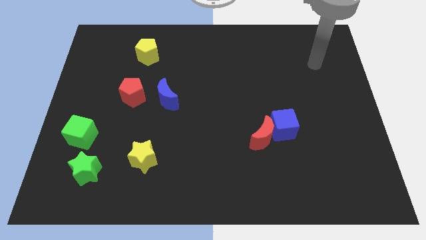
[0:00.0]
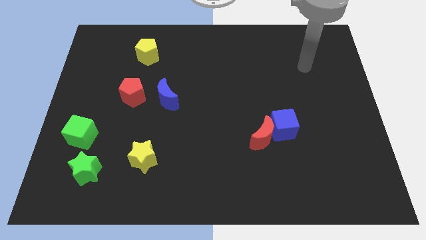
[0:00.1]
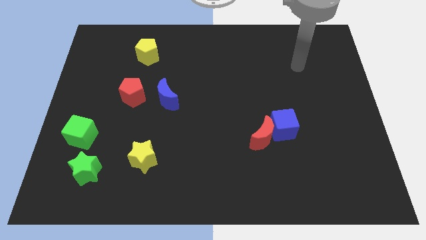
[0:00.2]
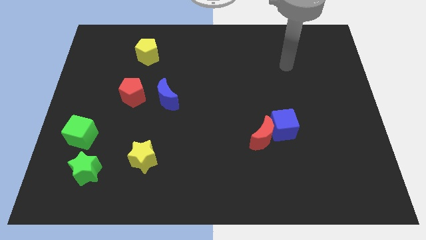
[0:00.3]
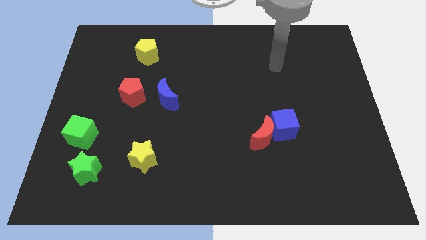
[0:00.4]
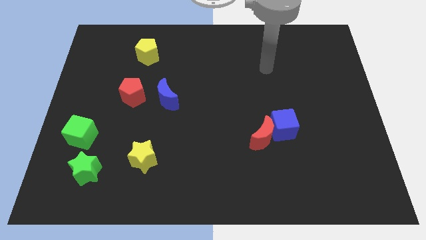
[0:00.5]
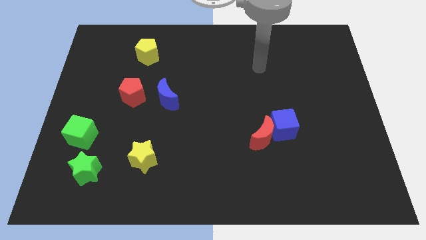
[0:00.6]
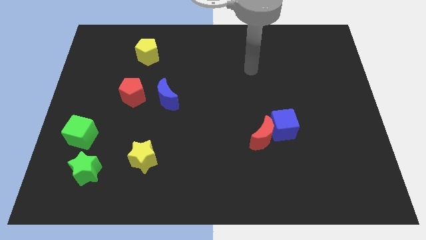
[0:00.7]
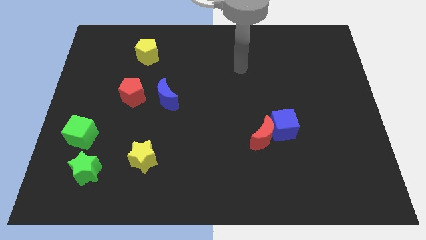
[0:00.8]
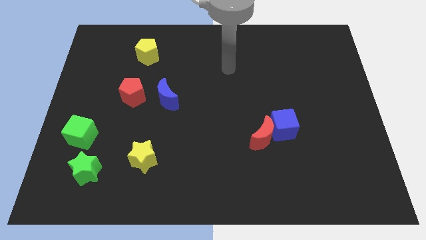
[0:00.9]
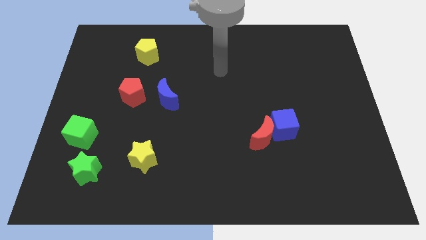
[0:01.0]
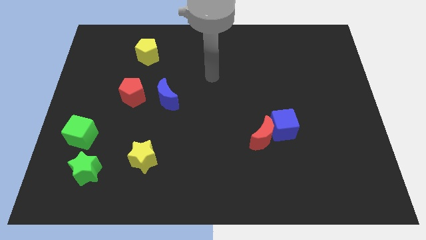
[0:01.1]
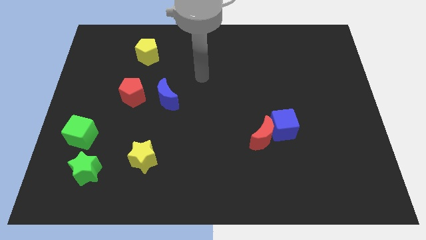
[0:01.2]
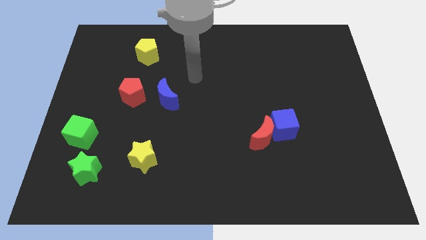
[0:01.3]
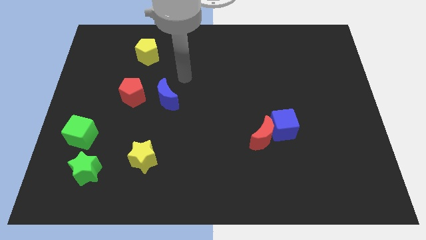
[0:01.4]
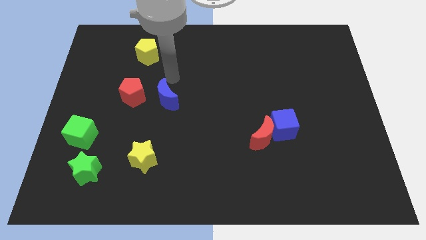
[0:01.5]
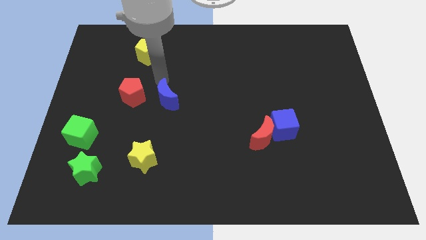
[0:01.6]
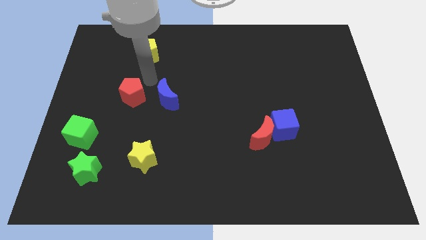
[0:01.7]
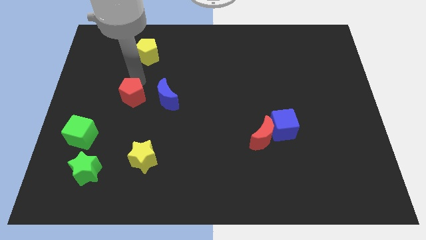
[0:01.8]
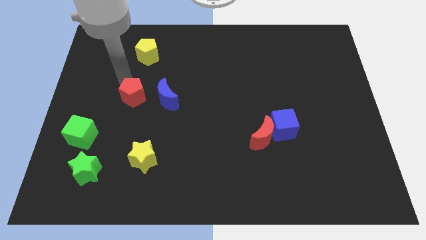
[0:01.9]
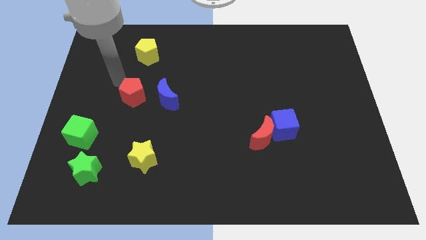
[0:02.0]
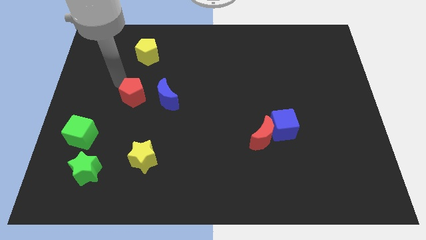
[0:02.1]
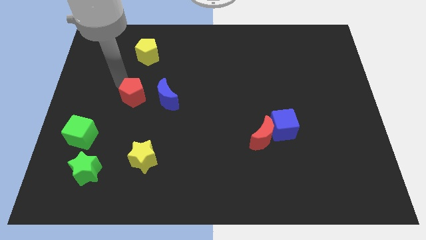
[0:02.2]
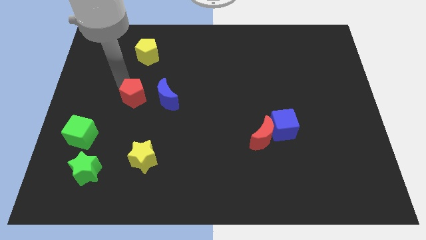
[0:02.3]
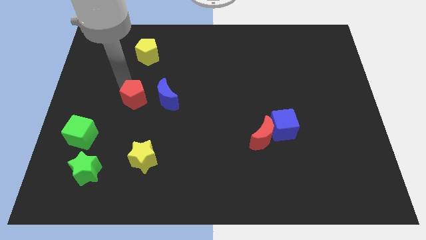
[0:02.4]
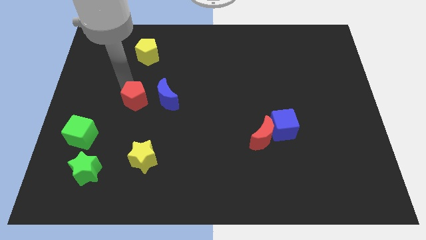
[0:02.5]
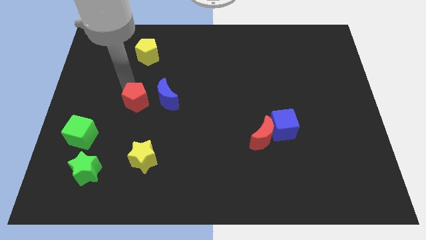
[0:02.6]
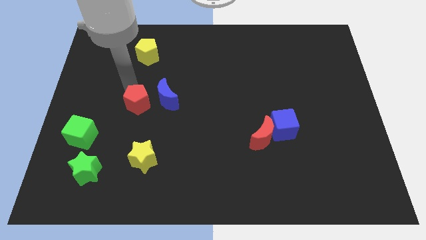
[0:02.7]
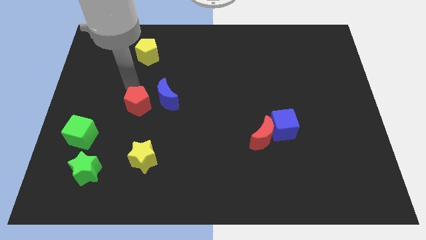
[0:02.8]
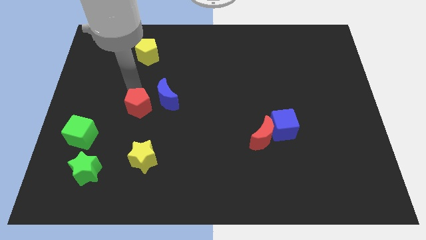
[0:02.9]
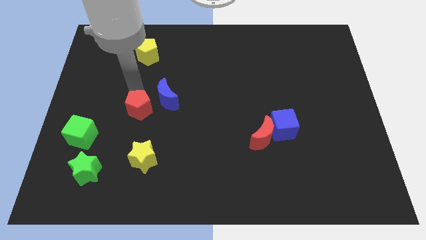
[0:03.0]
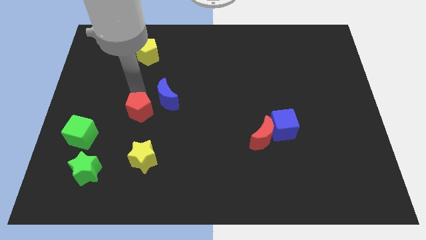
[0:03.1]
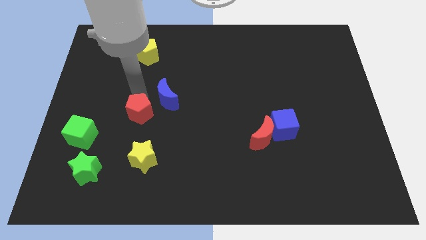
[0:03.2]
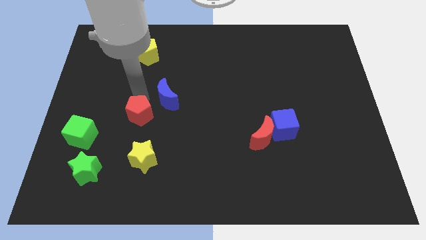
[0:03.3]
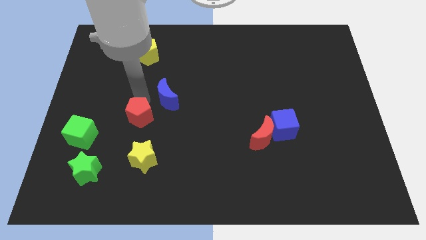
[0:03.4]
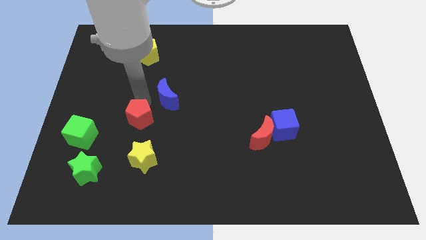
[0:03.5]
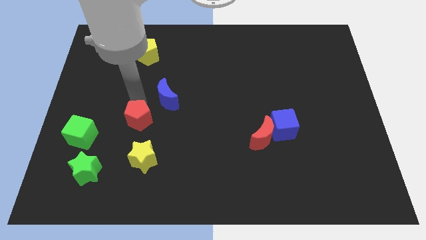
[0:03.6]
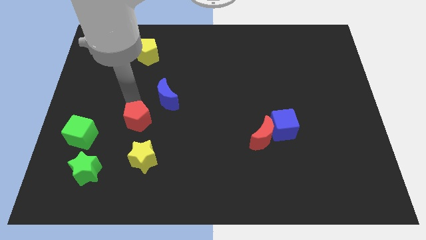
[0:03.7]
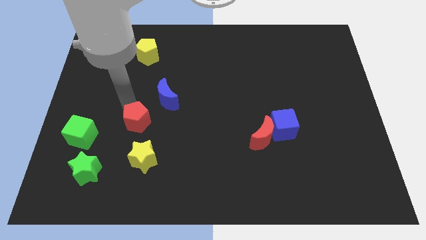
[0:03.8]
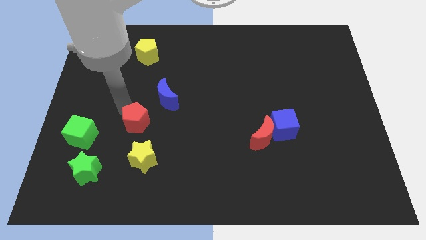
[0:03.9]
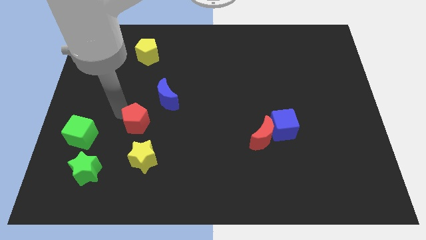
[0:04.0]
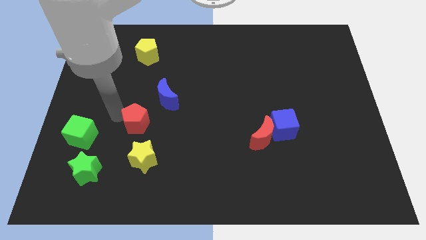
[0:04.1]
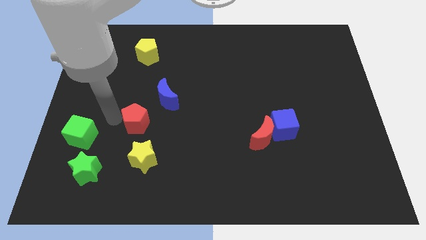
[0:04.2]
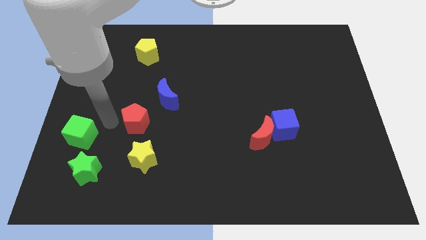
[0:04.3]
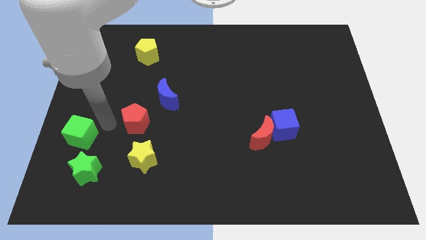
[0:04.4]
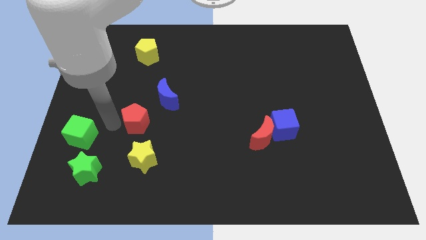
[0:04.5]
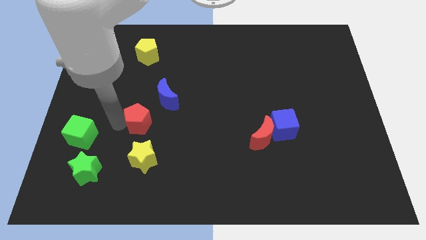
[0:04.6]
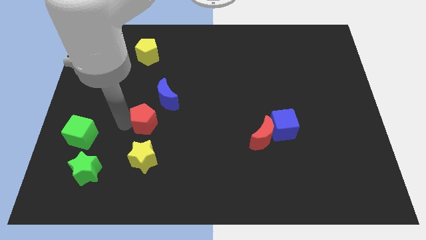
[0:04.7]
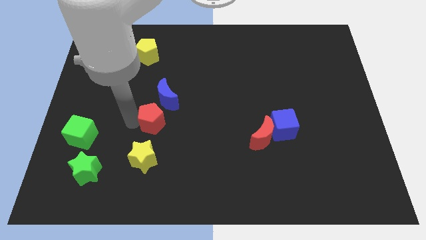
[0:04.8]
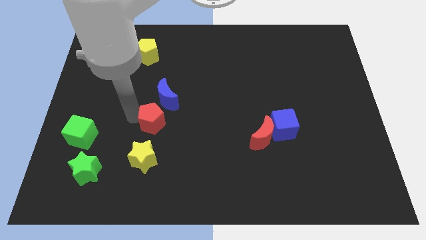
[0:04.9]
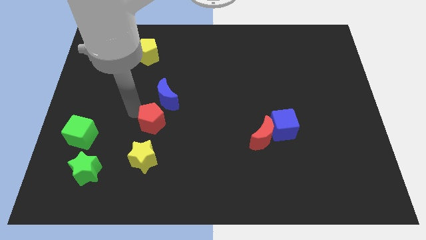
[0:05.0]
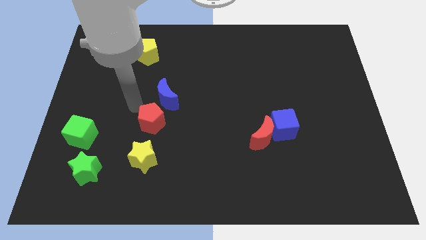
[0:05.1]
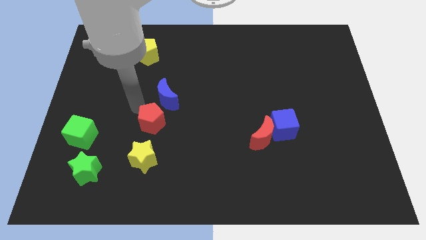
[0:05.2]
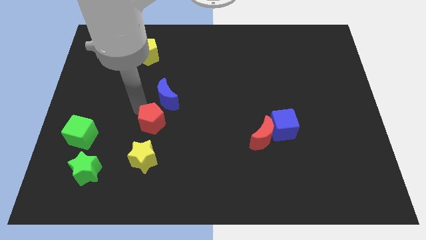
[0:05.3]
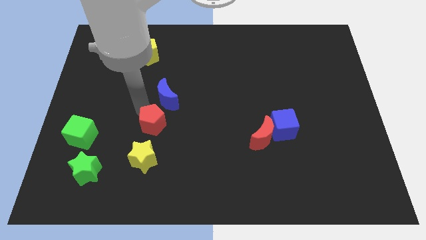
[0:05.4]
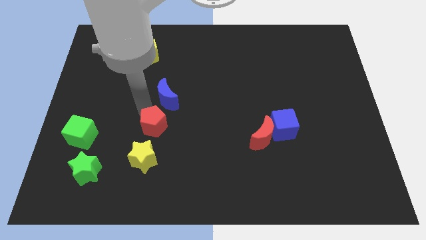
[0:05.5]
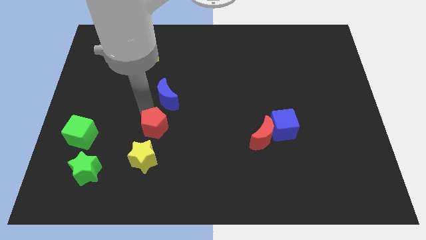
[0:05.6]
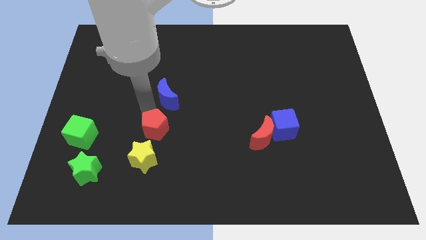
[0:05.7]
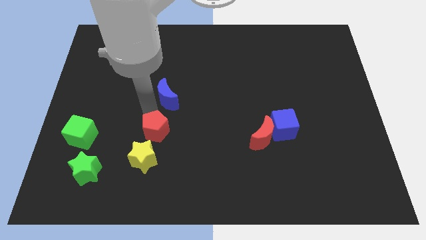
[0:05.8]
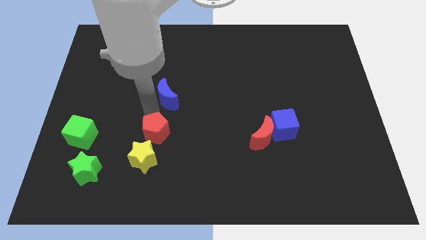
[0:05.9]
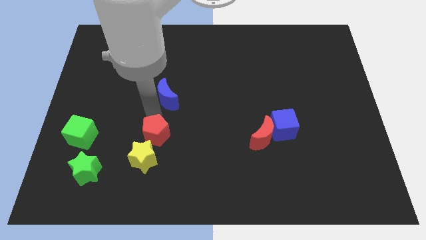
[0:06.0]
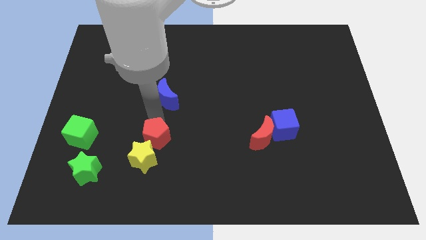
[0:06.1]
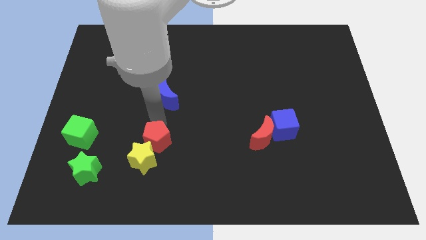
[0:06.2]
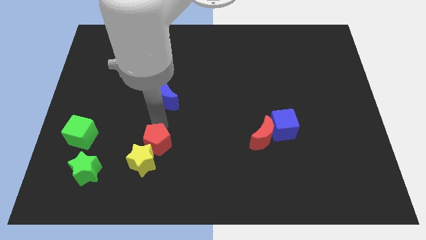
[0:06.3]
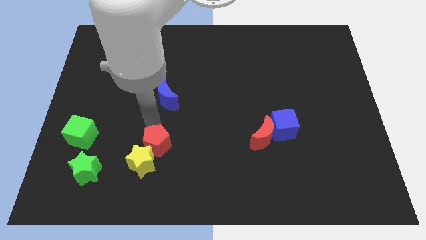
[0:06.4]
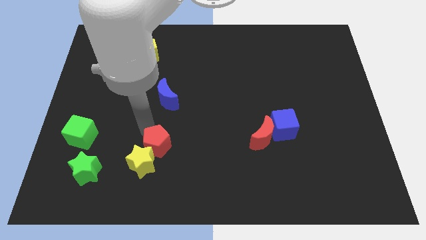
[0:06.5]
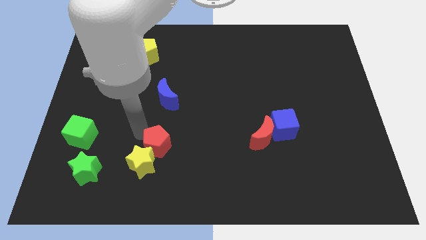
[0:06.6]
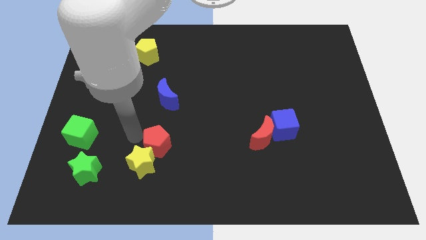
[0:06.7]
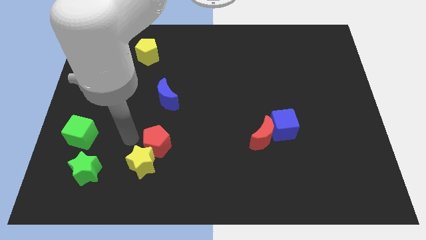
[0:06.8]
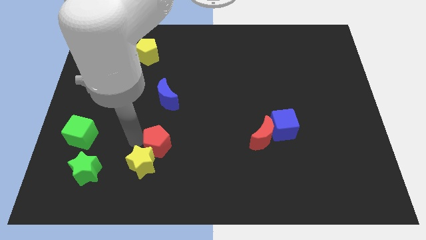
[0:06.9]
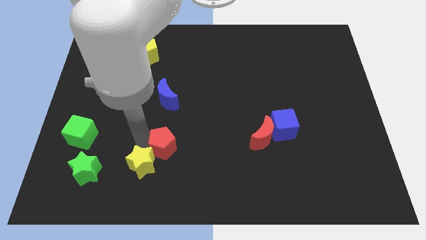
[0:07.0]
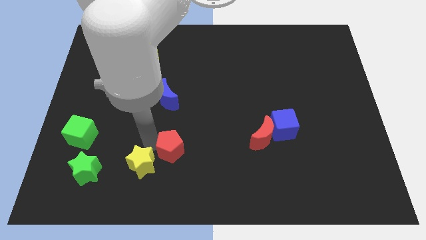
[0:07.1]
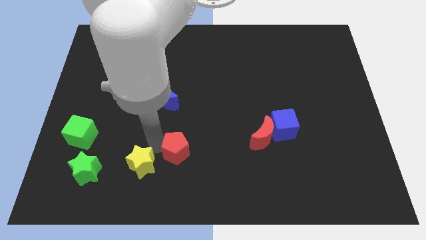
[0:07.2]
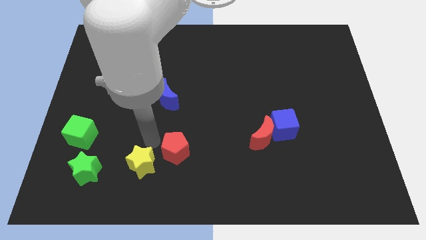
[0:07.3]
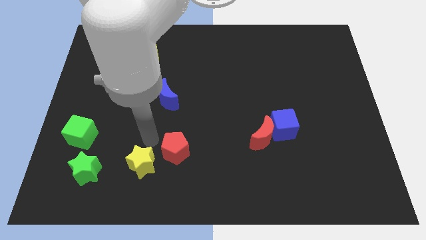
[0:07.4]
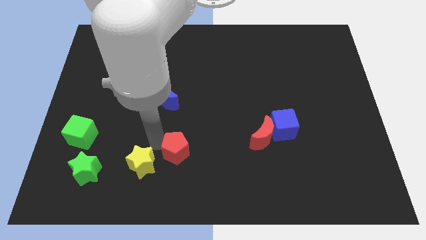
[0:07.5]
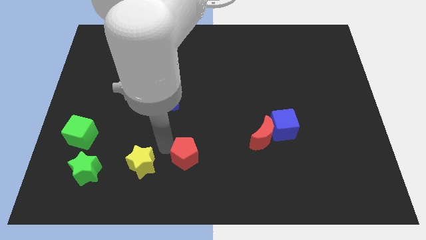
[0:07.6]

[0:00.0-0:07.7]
move the red pentagon down and then right

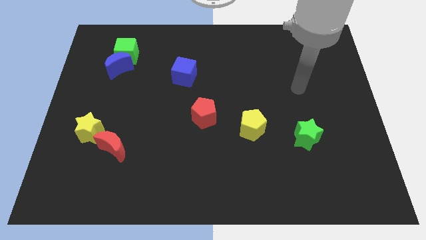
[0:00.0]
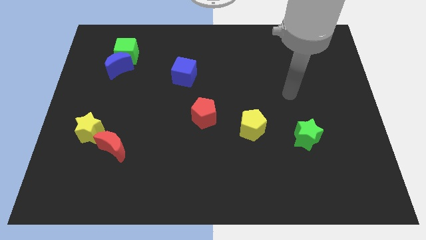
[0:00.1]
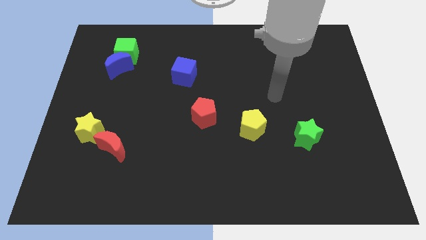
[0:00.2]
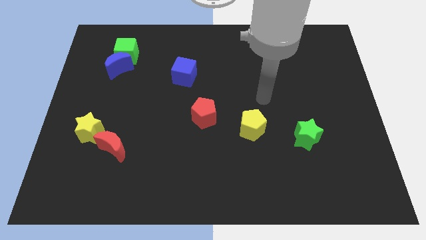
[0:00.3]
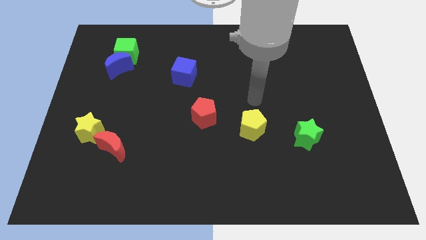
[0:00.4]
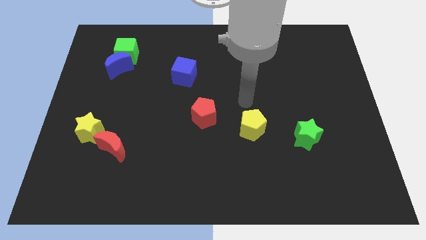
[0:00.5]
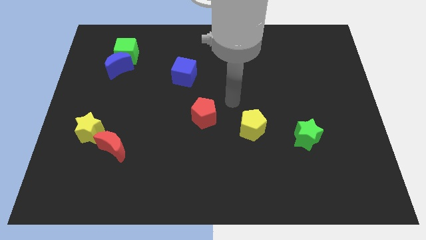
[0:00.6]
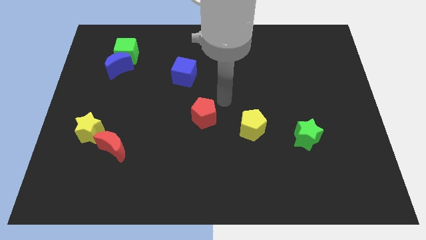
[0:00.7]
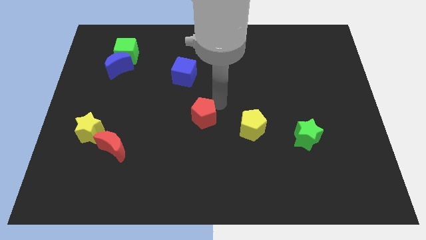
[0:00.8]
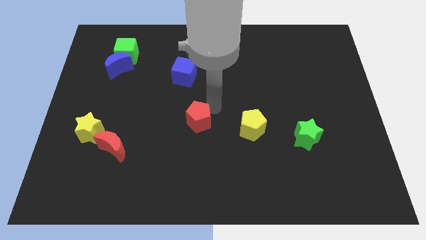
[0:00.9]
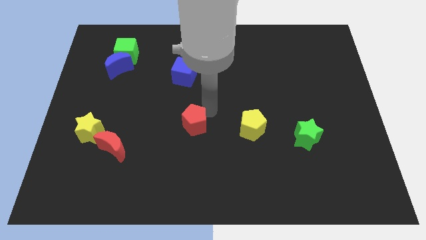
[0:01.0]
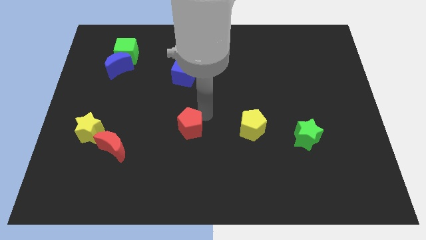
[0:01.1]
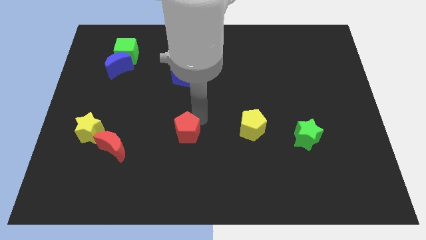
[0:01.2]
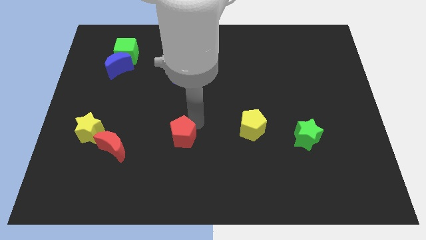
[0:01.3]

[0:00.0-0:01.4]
slide the red pentagon somewhat diagonally downwards and left
